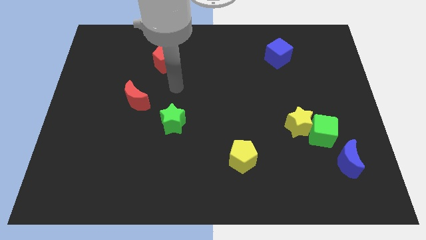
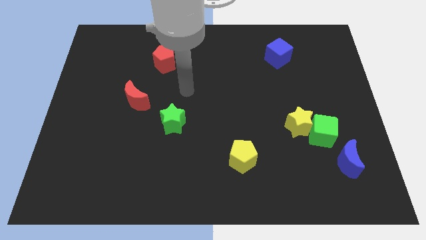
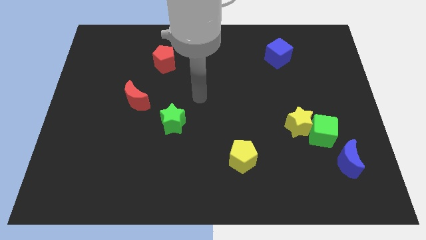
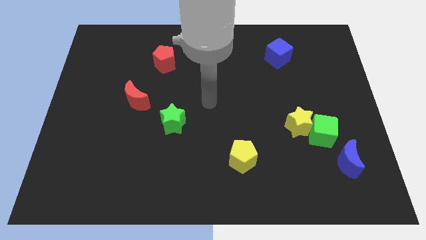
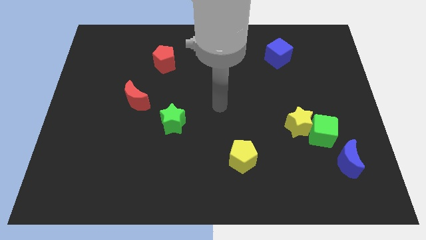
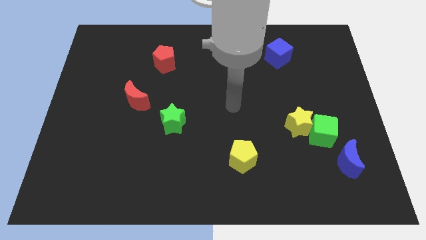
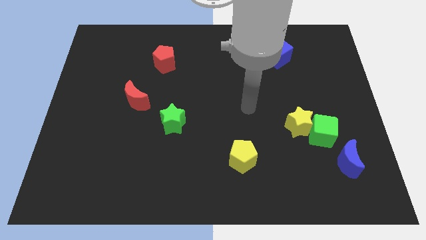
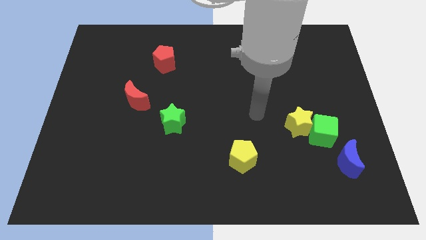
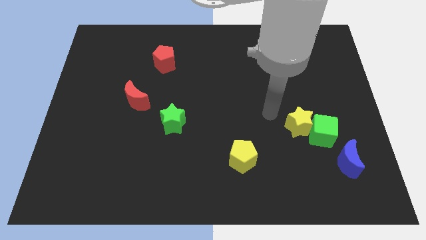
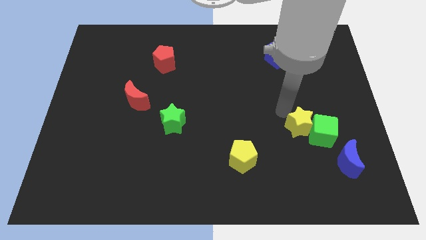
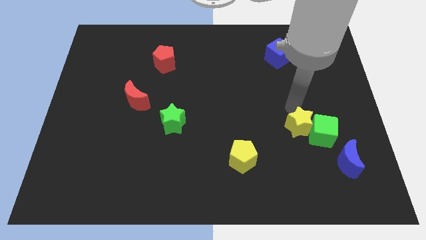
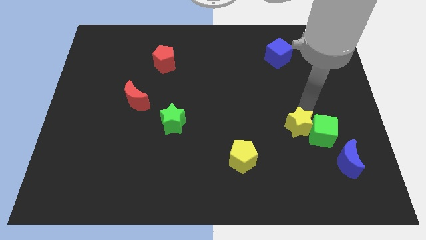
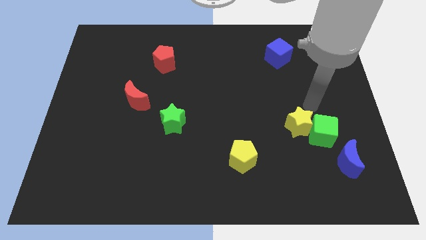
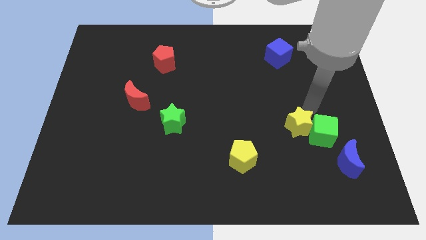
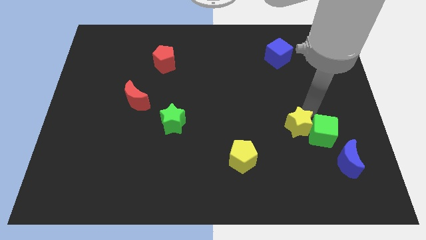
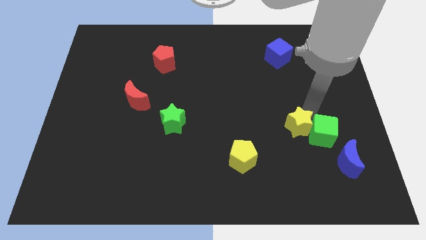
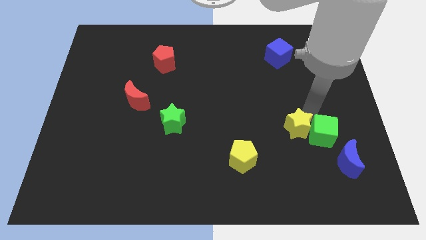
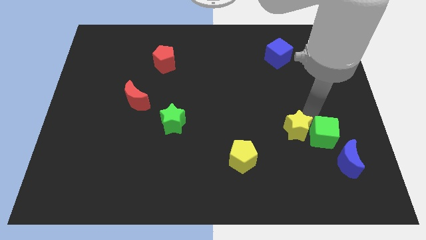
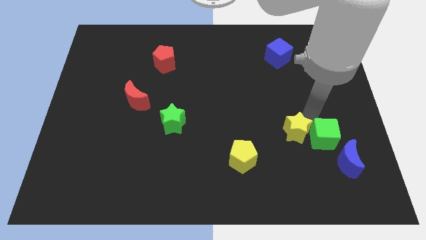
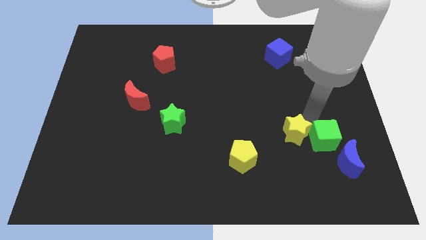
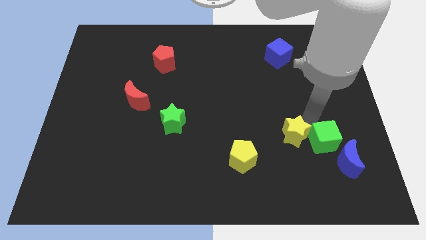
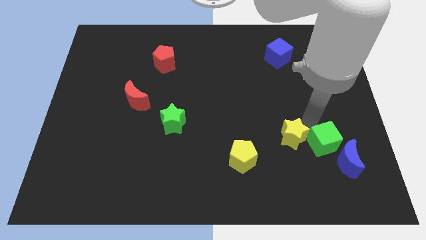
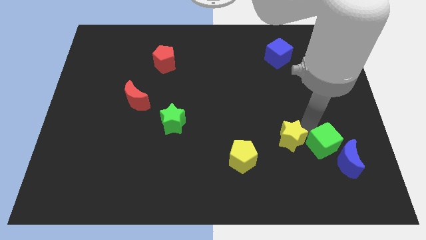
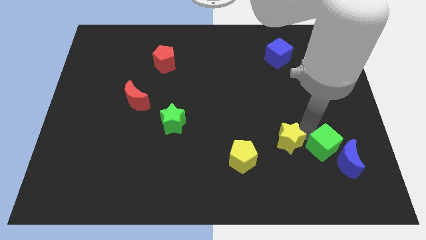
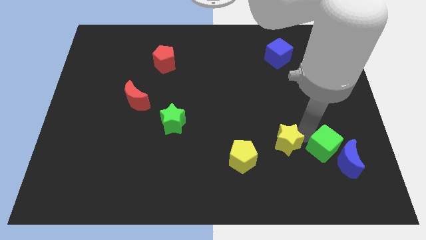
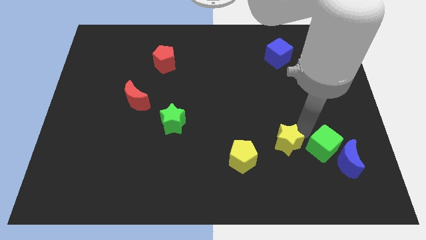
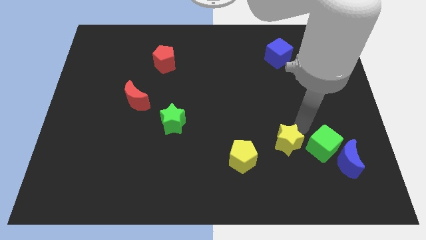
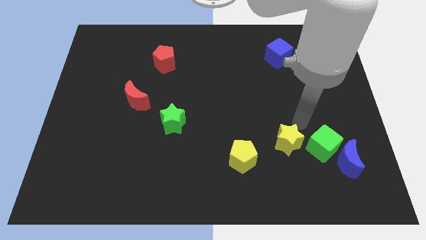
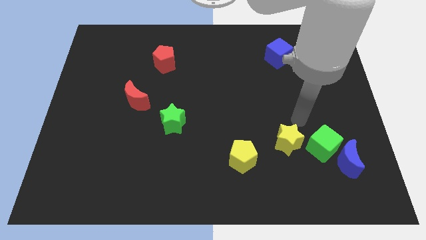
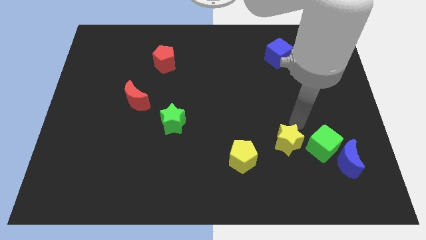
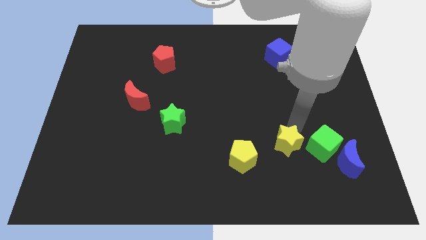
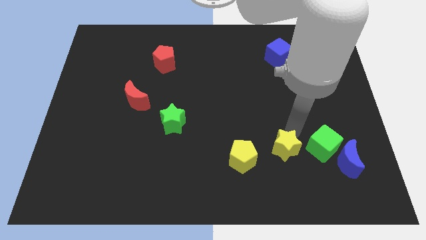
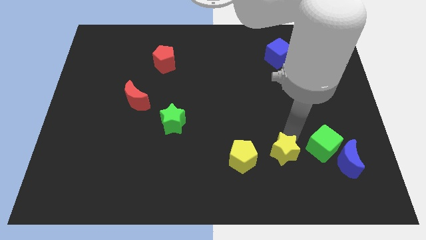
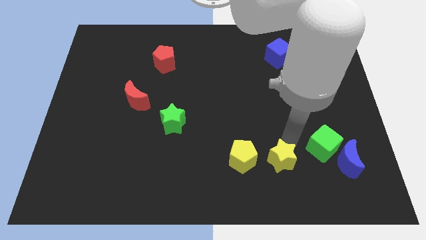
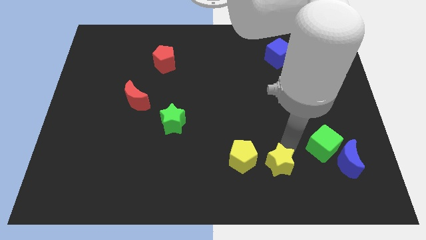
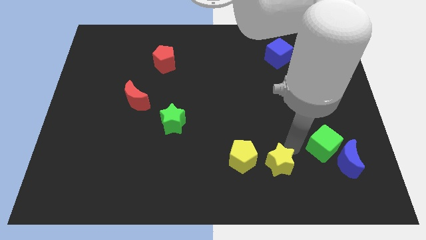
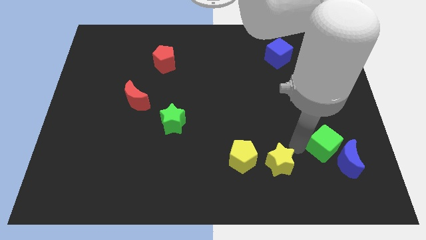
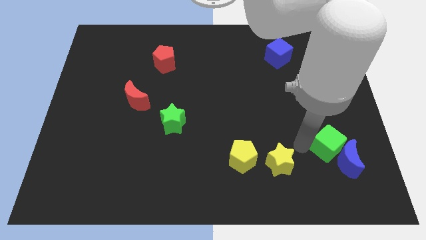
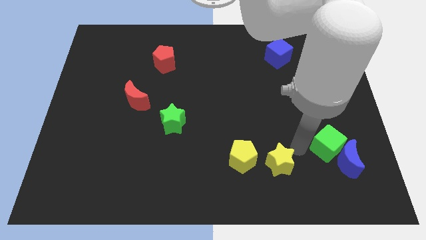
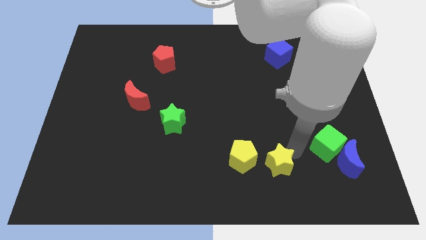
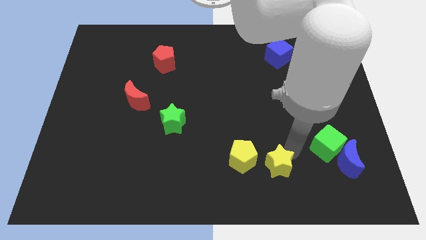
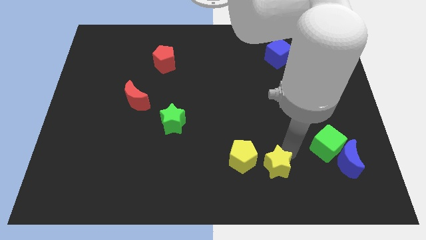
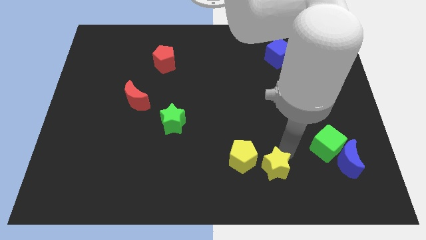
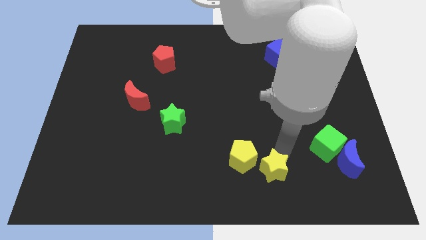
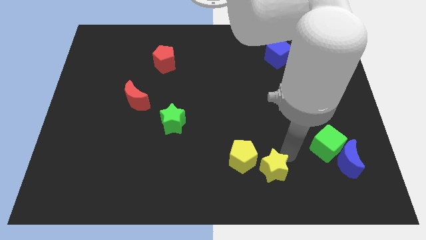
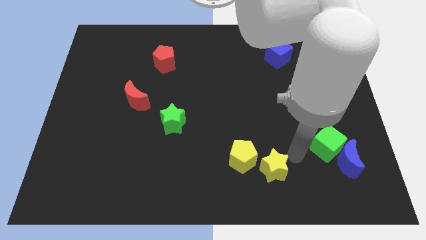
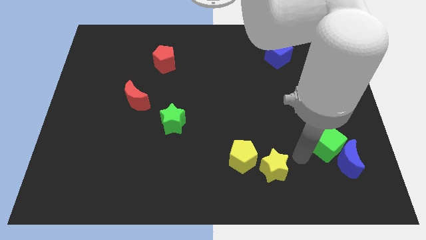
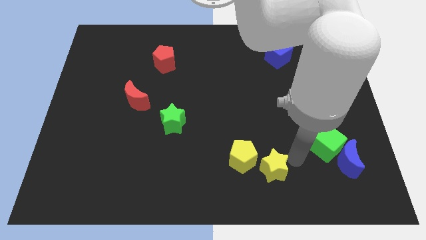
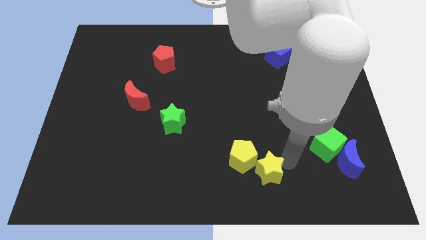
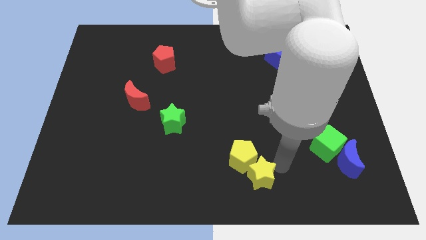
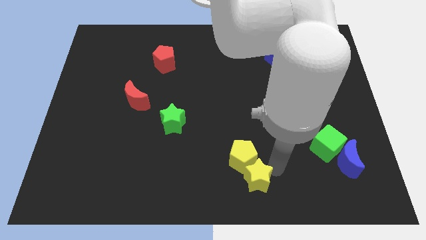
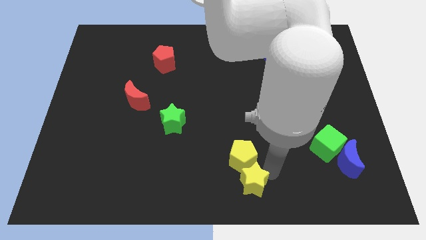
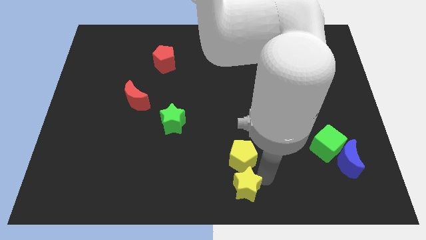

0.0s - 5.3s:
slide the yellow star to the bottom left side of the yellow pentagon

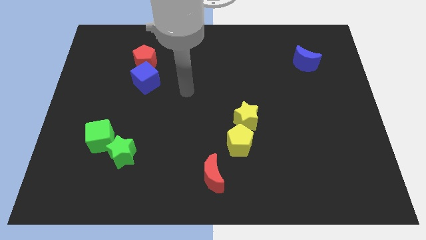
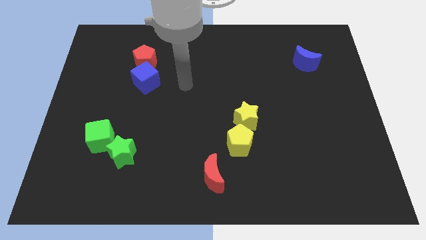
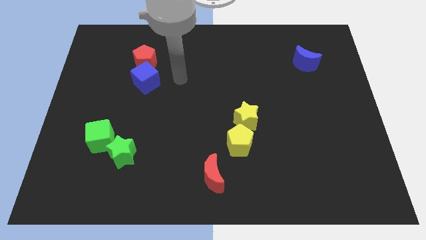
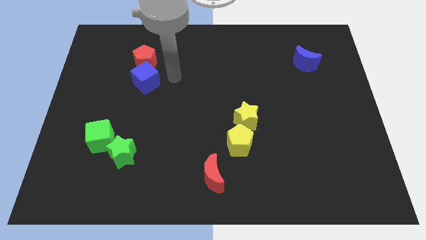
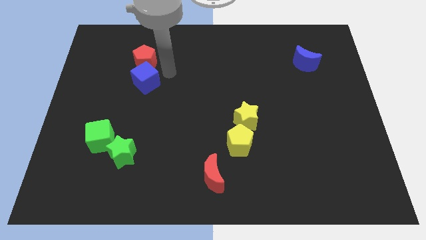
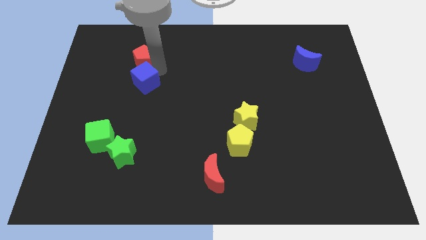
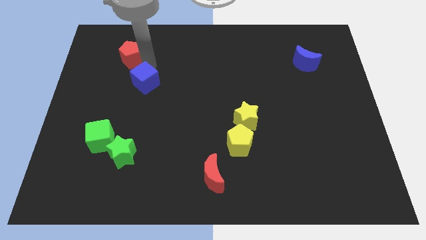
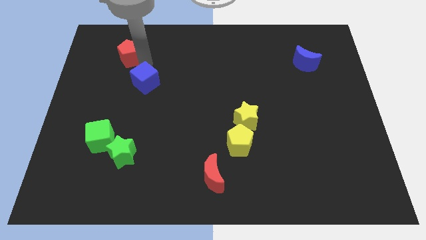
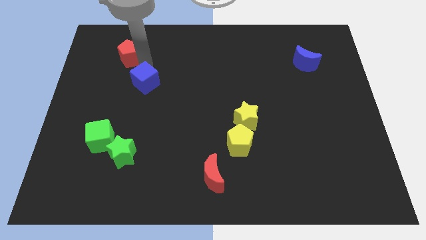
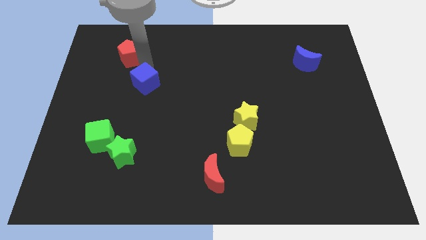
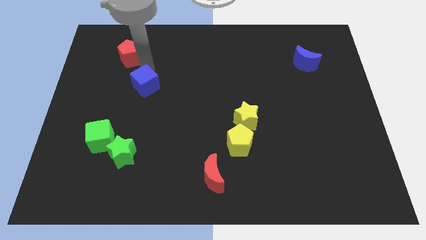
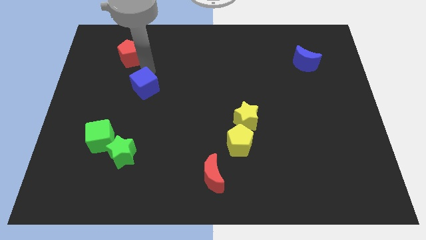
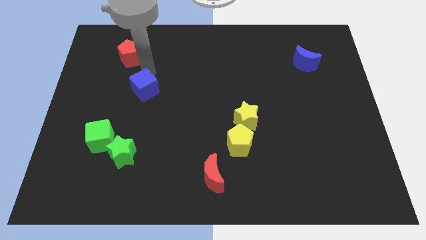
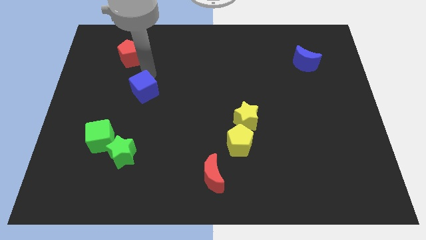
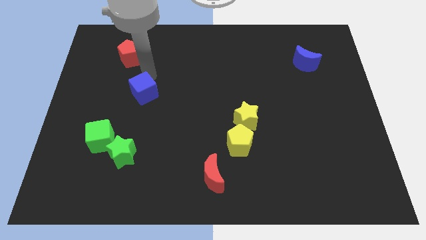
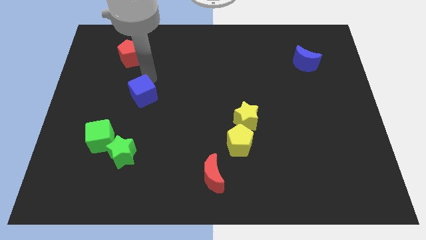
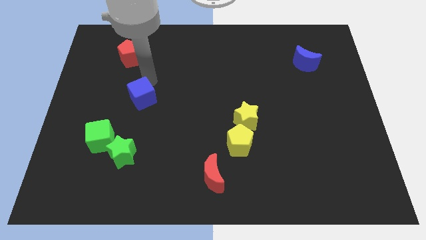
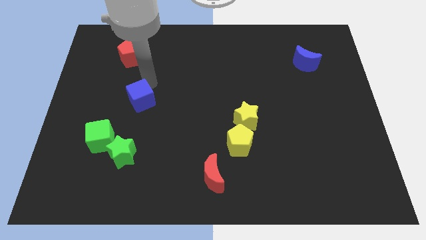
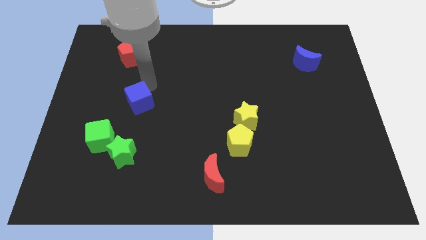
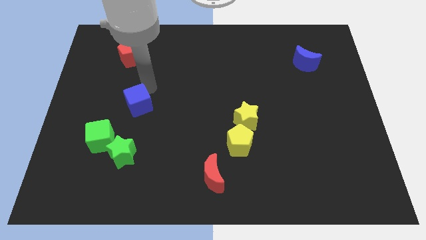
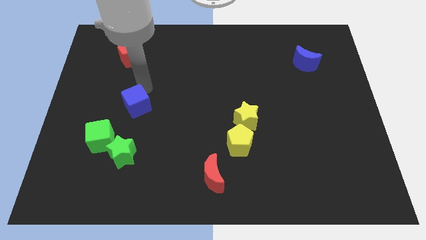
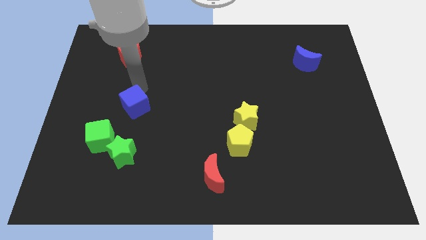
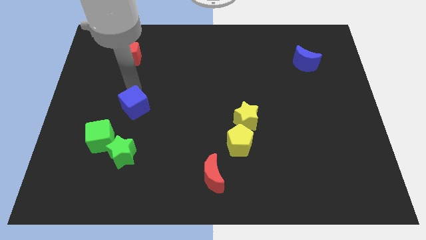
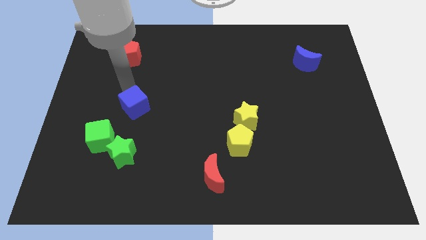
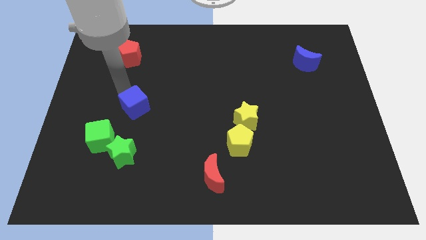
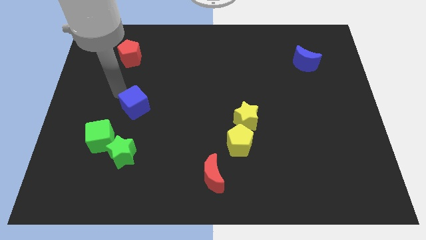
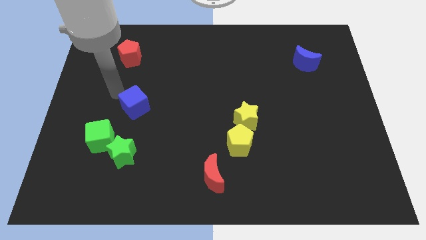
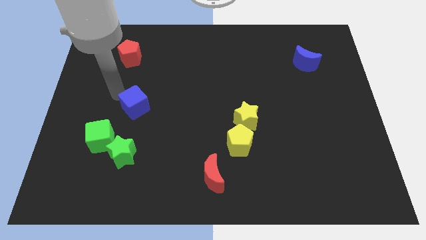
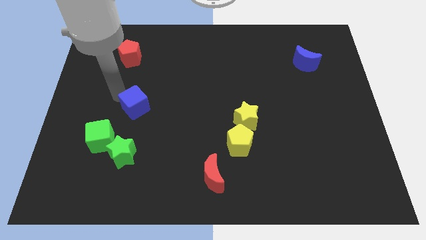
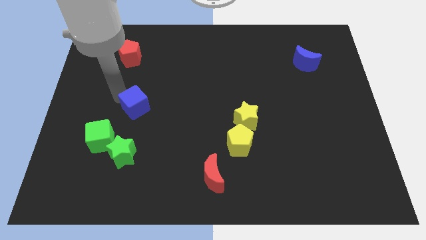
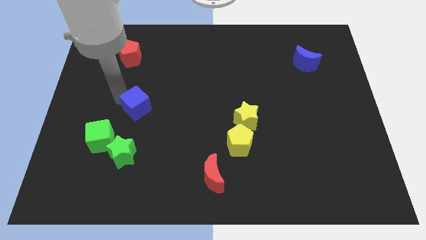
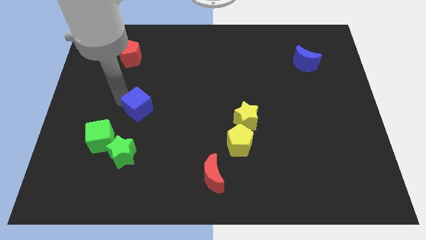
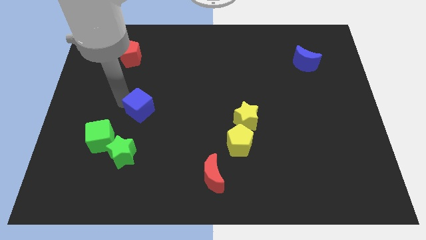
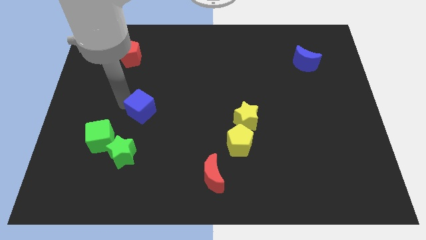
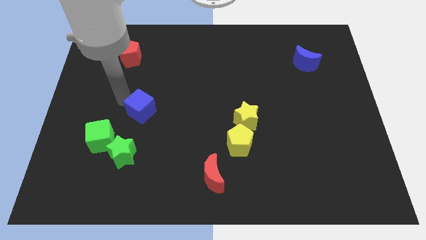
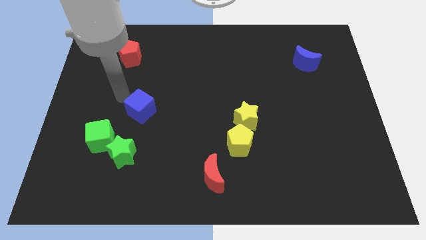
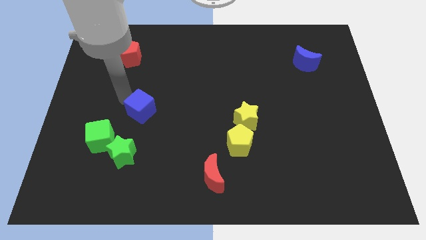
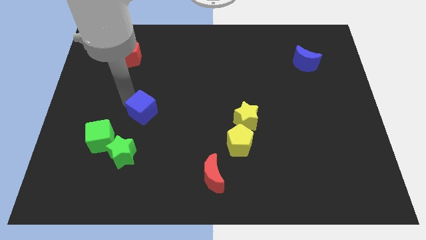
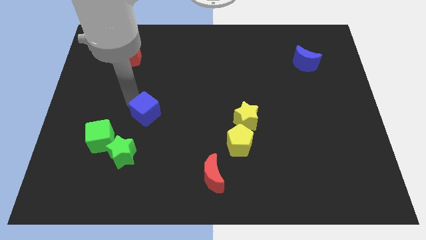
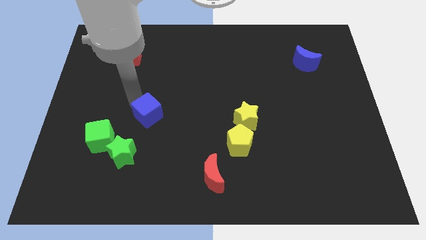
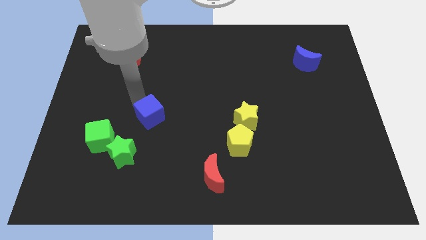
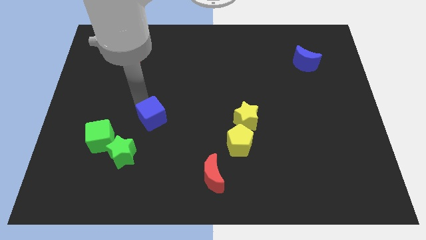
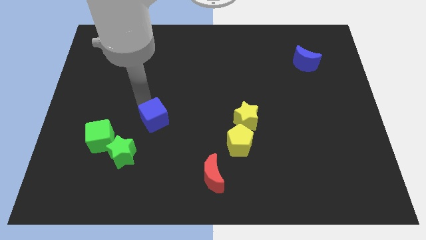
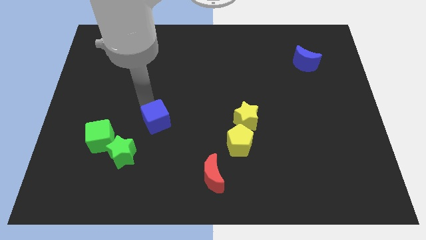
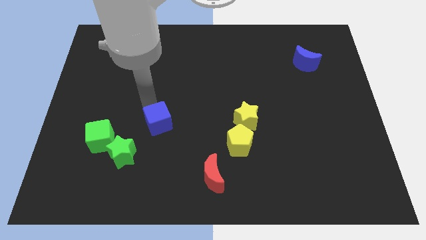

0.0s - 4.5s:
put the blue cube just right of the green cube
